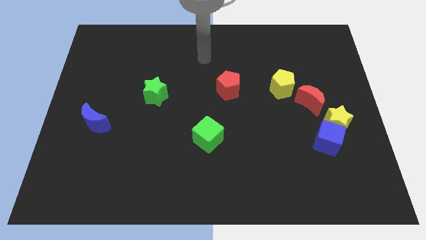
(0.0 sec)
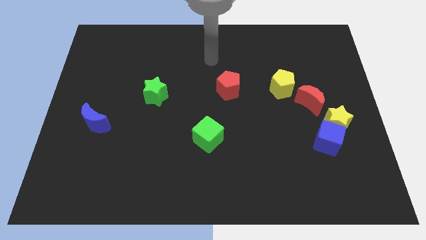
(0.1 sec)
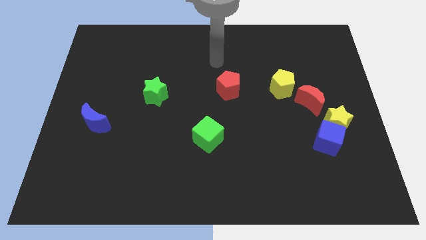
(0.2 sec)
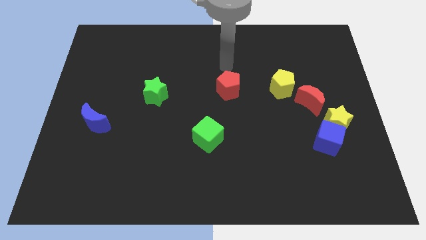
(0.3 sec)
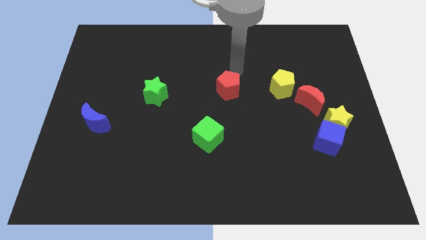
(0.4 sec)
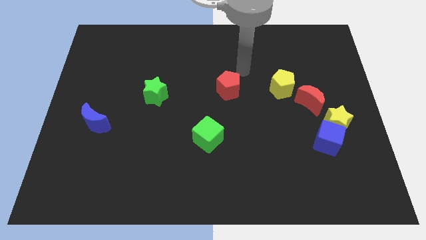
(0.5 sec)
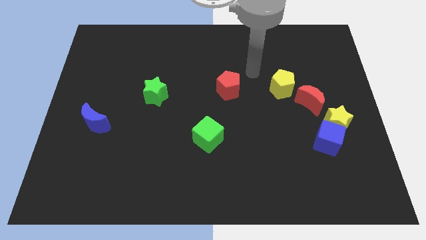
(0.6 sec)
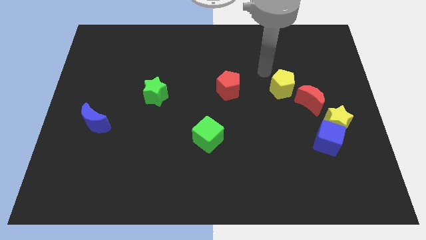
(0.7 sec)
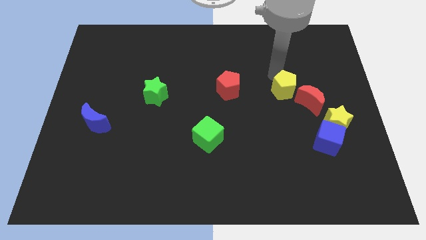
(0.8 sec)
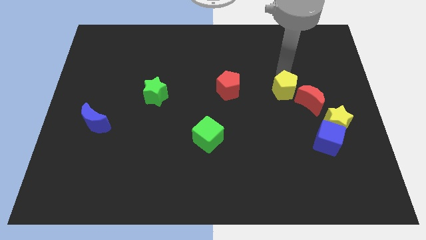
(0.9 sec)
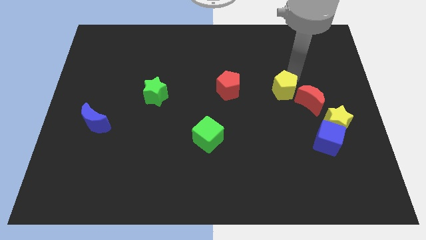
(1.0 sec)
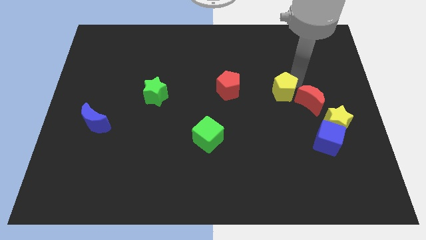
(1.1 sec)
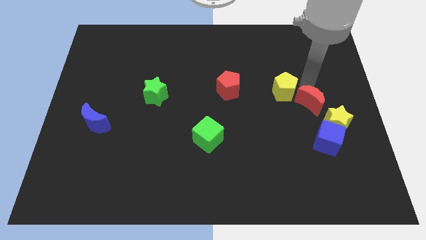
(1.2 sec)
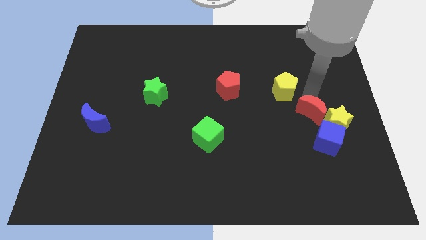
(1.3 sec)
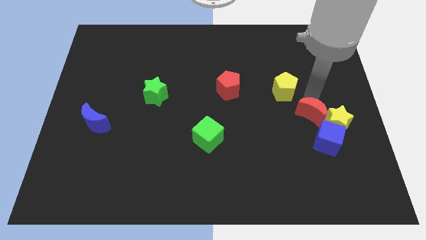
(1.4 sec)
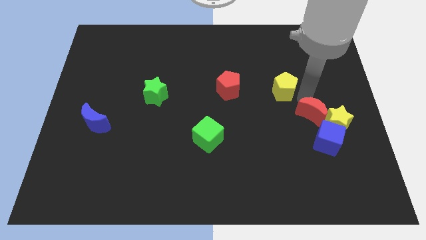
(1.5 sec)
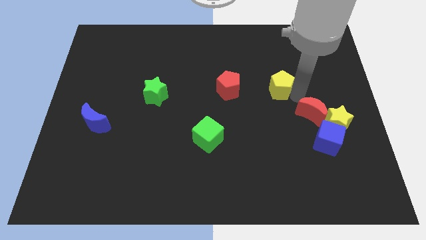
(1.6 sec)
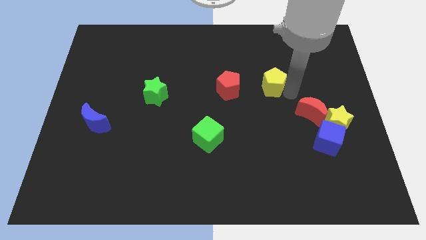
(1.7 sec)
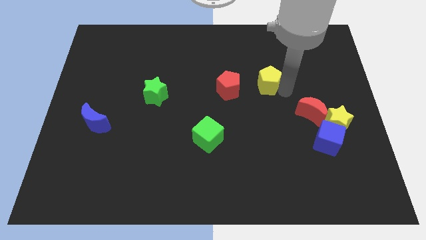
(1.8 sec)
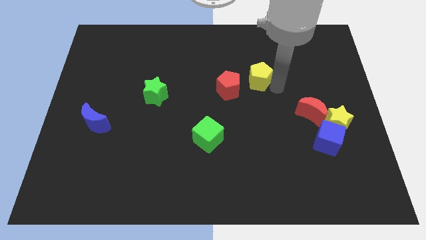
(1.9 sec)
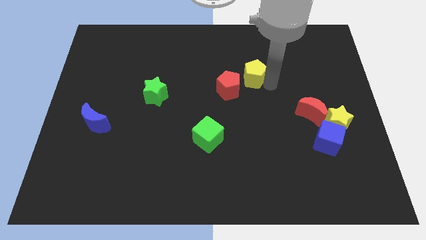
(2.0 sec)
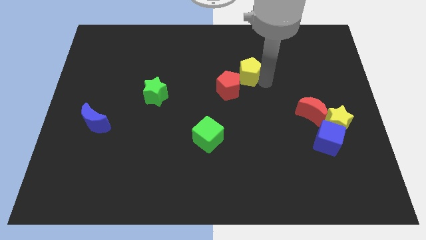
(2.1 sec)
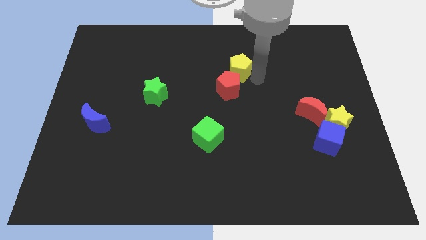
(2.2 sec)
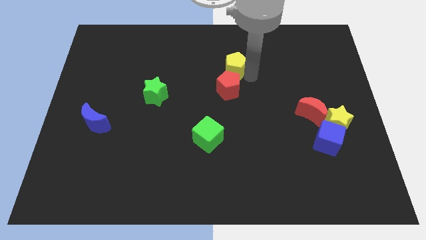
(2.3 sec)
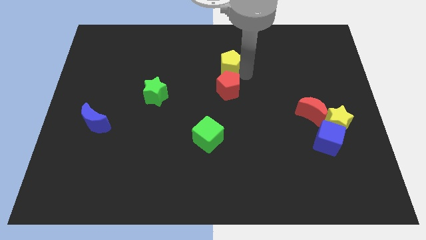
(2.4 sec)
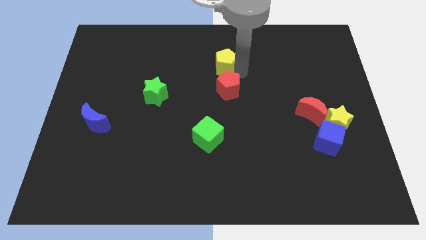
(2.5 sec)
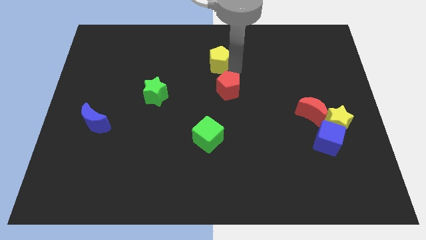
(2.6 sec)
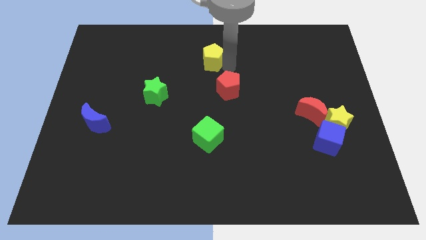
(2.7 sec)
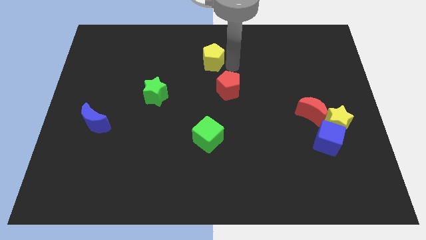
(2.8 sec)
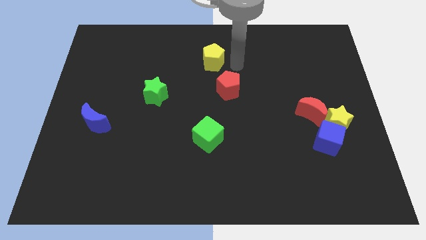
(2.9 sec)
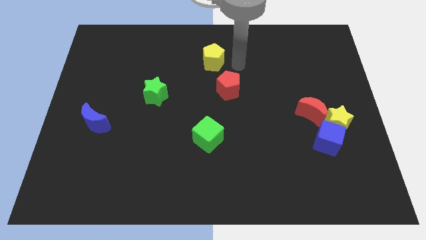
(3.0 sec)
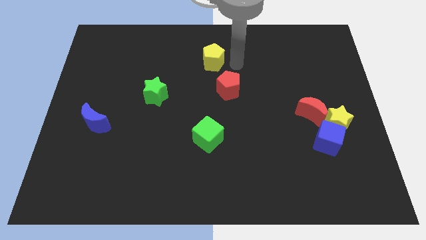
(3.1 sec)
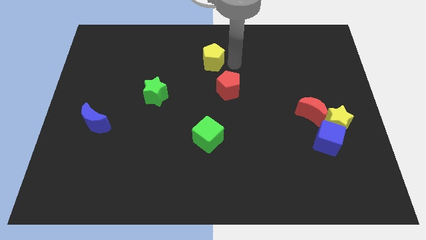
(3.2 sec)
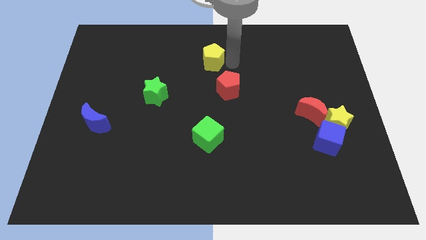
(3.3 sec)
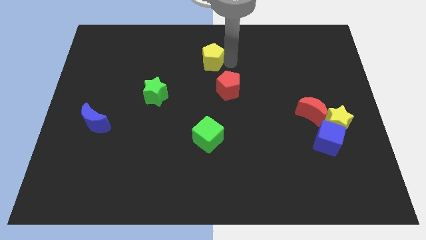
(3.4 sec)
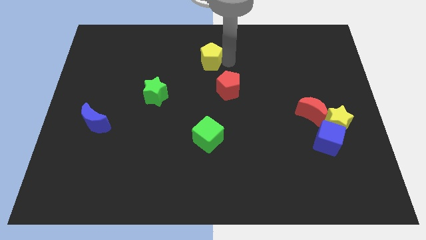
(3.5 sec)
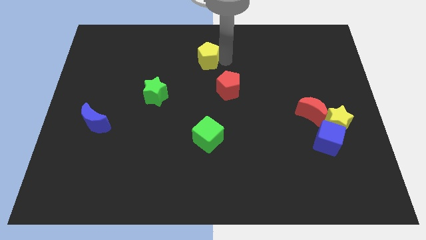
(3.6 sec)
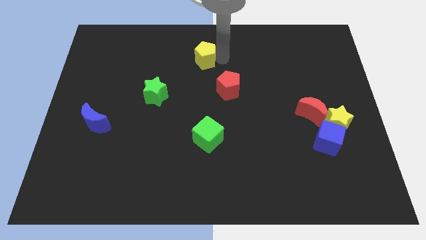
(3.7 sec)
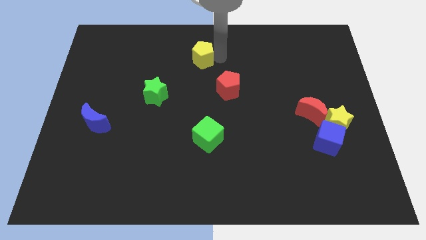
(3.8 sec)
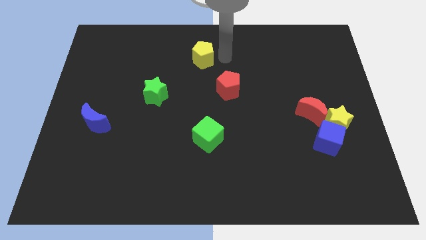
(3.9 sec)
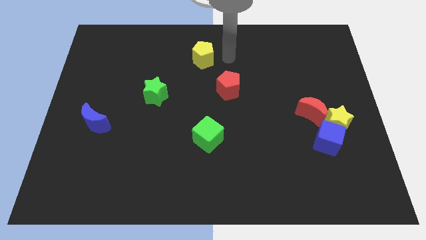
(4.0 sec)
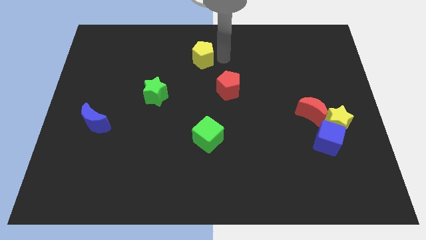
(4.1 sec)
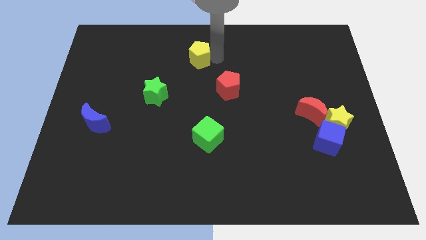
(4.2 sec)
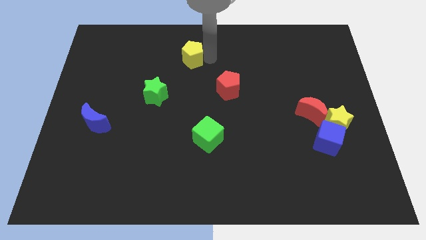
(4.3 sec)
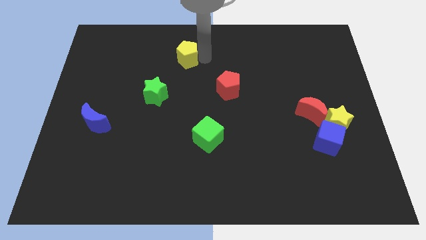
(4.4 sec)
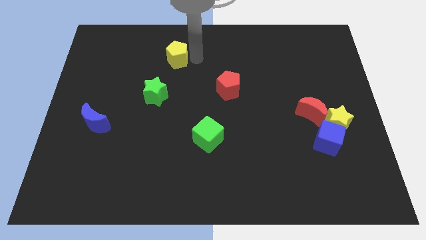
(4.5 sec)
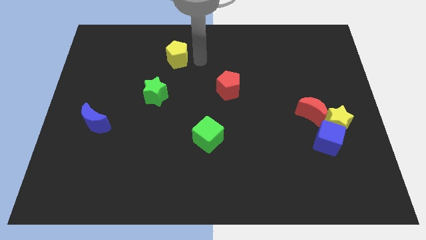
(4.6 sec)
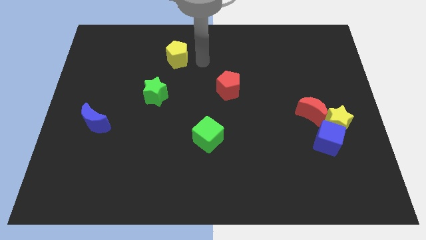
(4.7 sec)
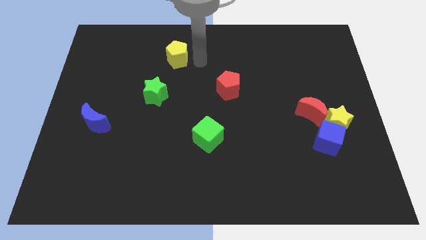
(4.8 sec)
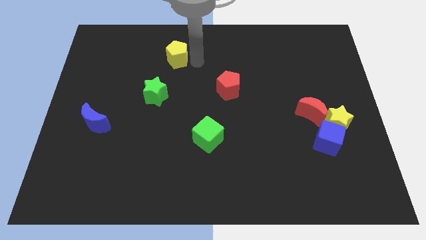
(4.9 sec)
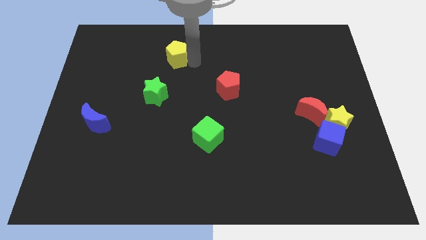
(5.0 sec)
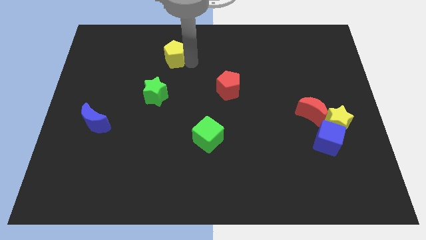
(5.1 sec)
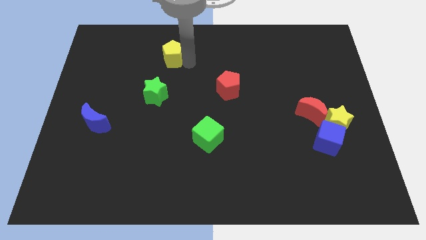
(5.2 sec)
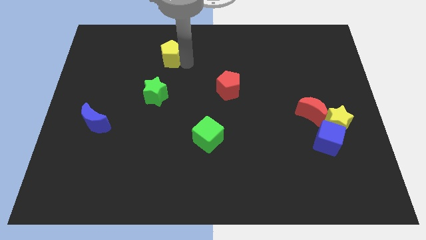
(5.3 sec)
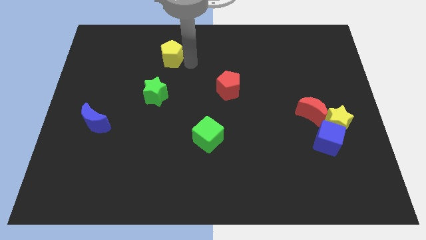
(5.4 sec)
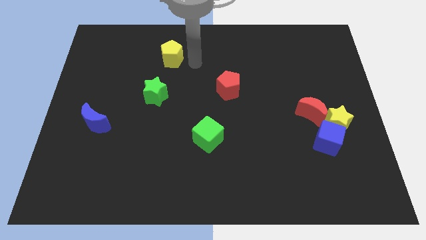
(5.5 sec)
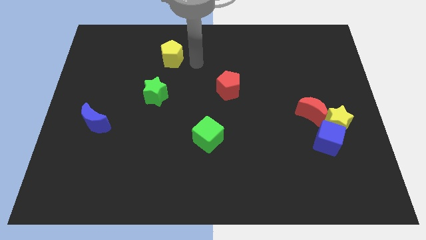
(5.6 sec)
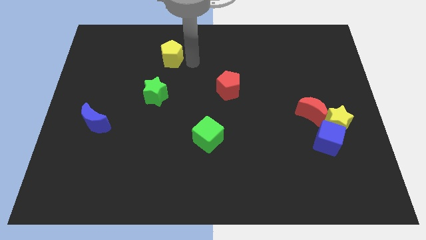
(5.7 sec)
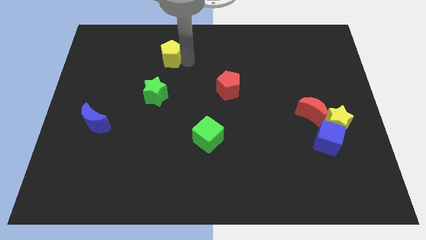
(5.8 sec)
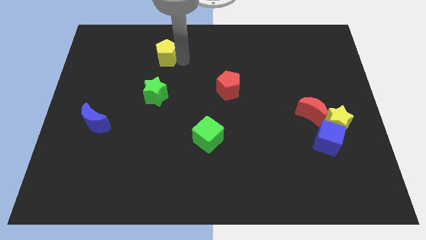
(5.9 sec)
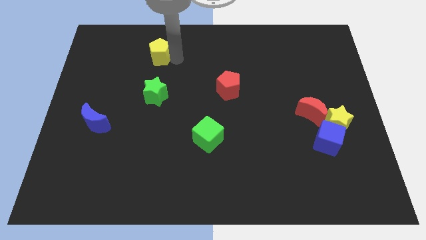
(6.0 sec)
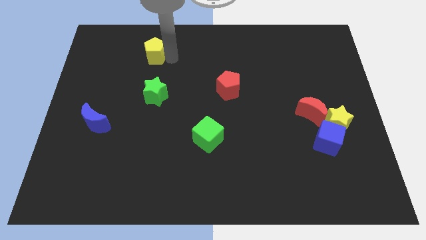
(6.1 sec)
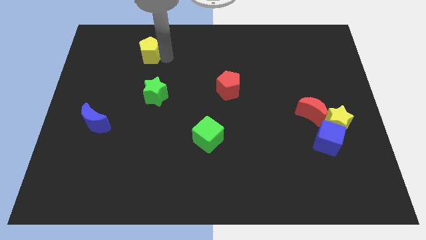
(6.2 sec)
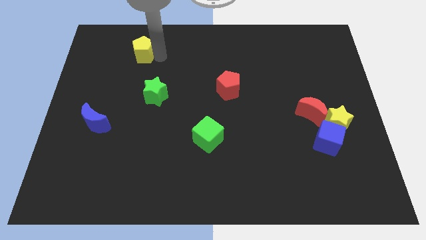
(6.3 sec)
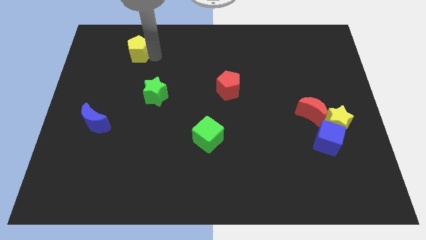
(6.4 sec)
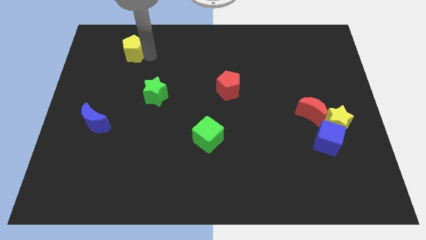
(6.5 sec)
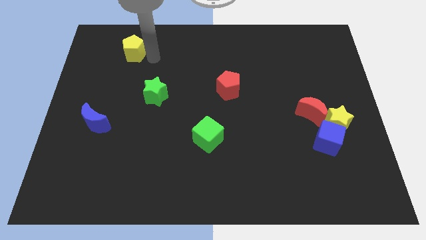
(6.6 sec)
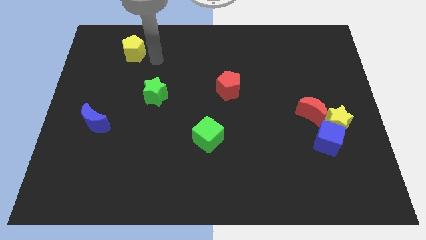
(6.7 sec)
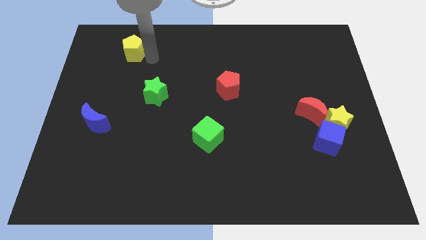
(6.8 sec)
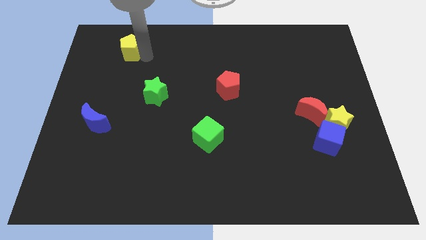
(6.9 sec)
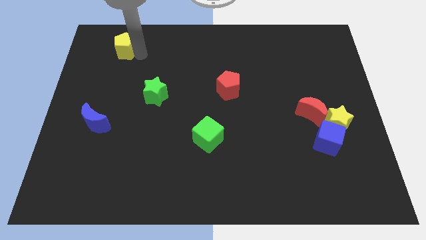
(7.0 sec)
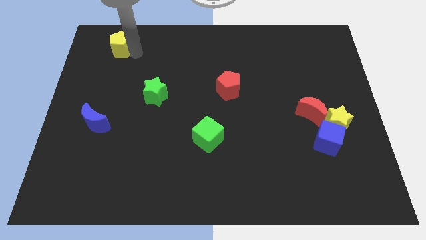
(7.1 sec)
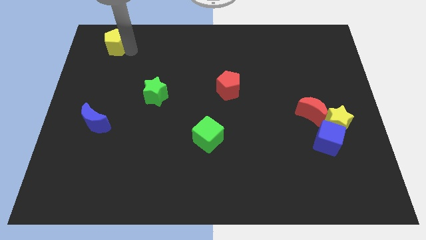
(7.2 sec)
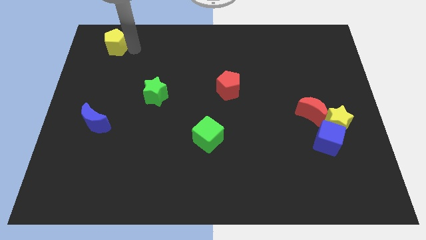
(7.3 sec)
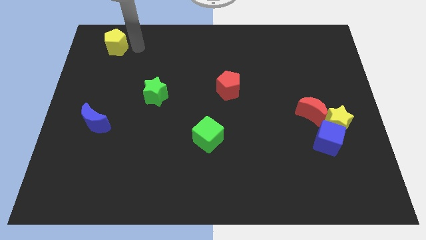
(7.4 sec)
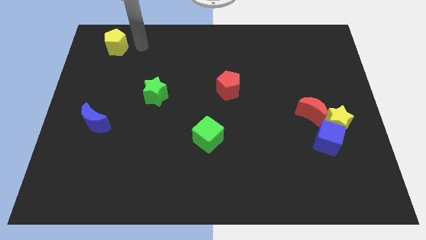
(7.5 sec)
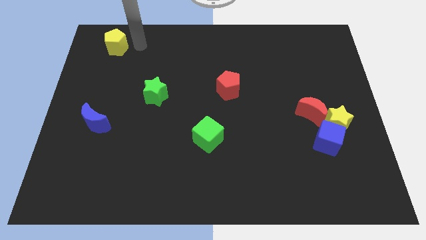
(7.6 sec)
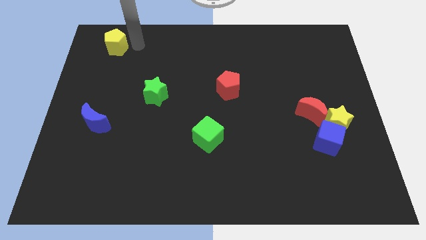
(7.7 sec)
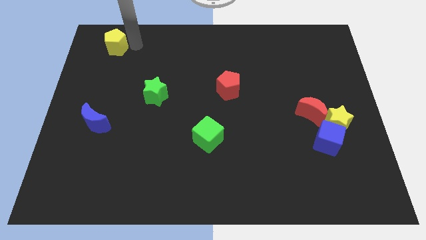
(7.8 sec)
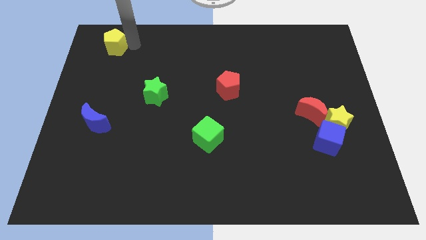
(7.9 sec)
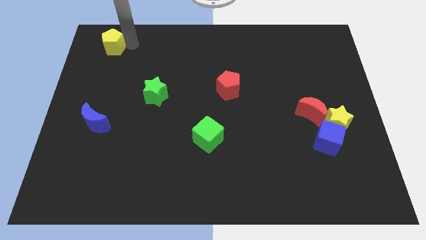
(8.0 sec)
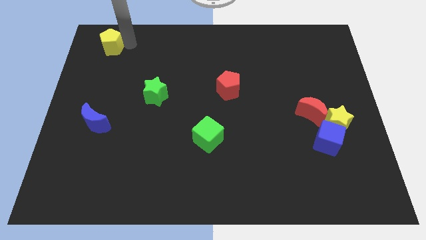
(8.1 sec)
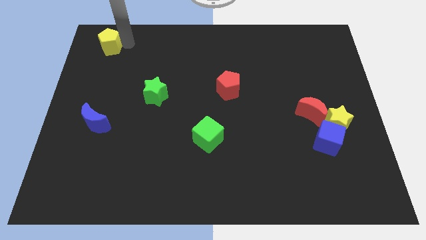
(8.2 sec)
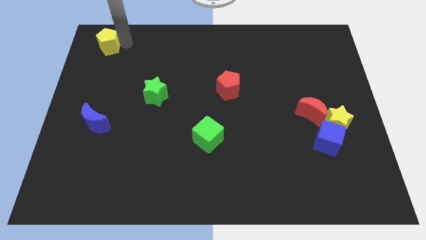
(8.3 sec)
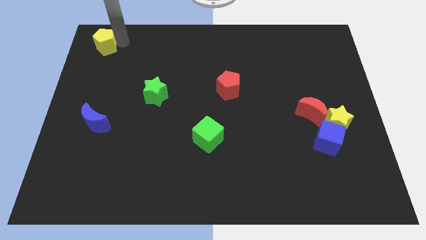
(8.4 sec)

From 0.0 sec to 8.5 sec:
put the yellow pentagon to the top left of the board
